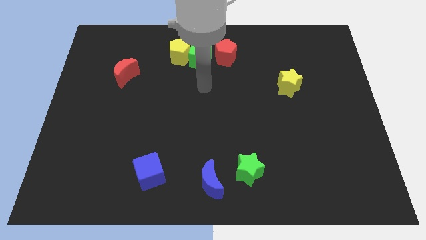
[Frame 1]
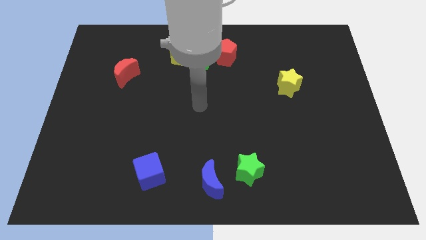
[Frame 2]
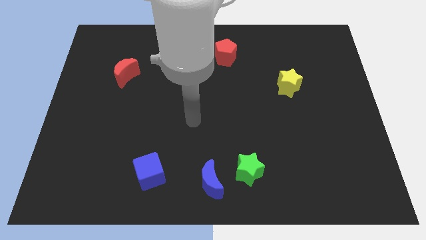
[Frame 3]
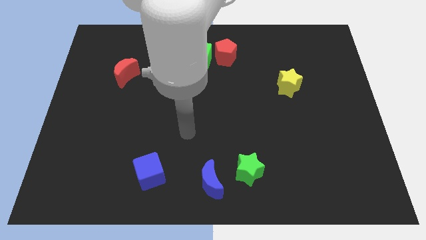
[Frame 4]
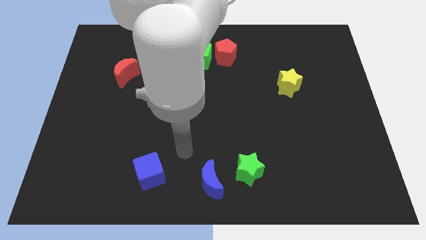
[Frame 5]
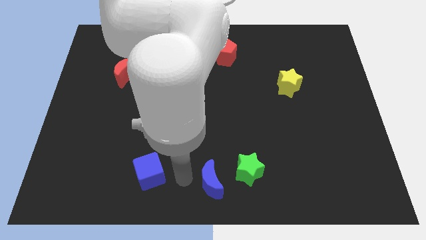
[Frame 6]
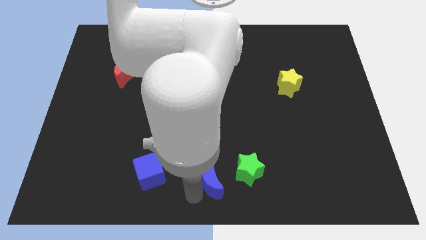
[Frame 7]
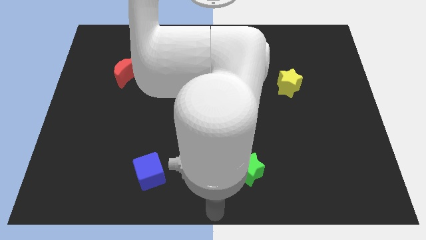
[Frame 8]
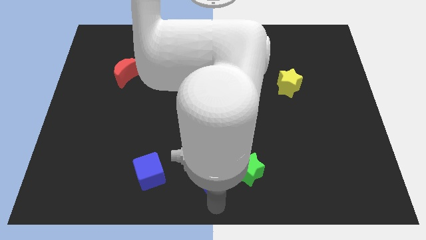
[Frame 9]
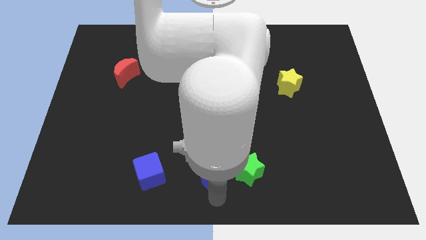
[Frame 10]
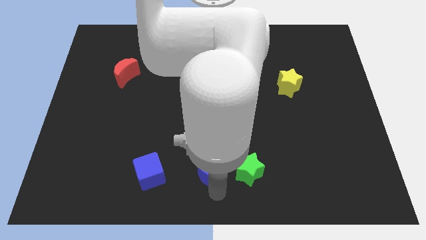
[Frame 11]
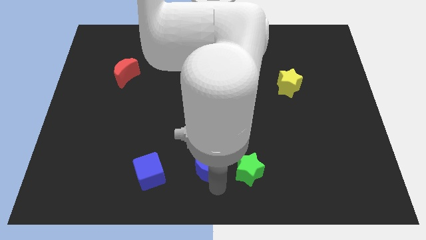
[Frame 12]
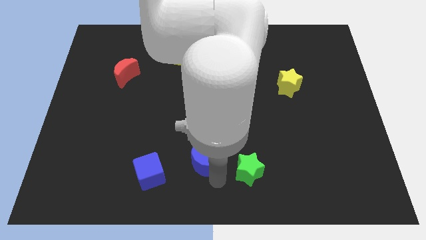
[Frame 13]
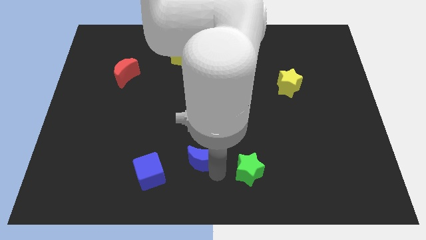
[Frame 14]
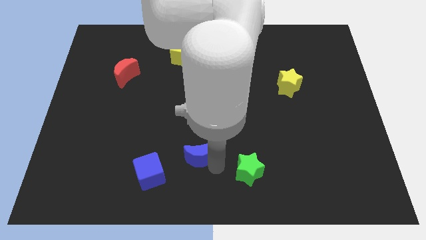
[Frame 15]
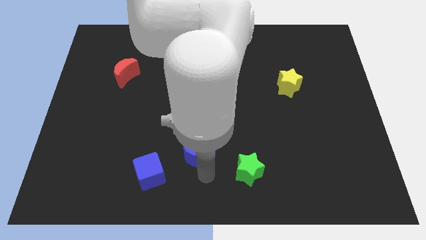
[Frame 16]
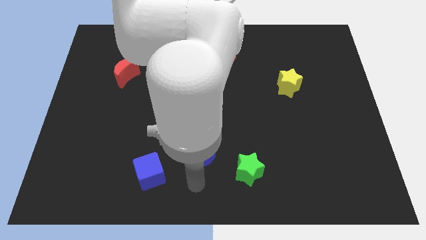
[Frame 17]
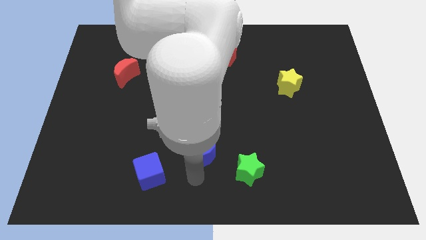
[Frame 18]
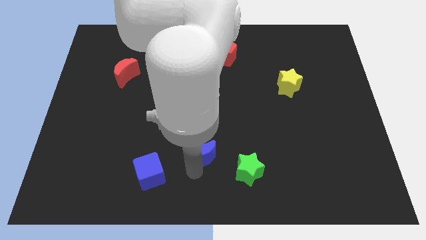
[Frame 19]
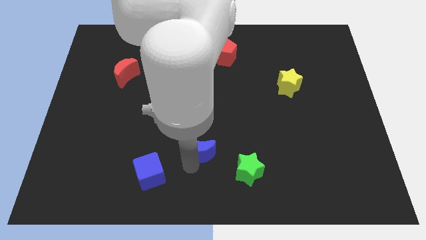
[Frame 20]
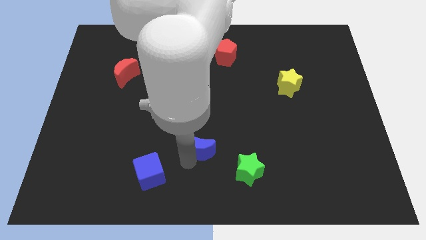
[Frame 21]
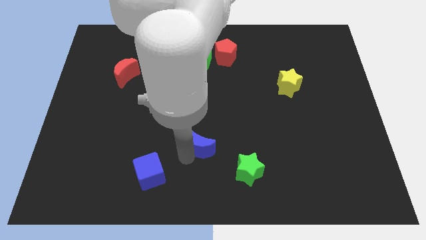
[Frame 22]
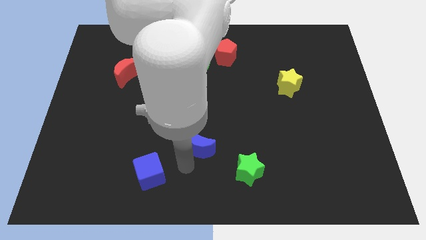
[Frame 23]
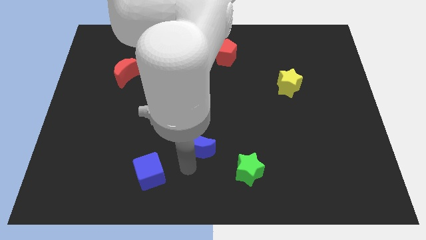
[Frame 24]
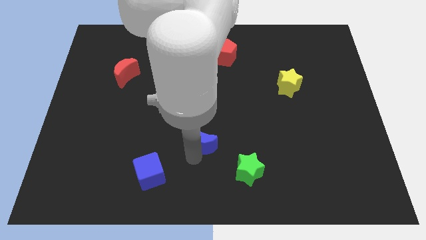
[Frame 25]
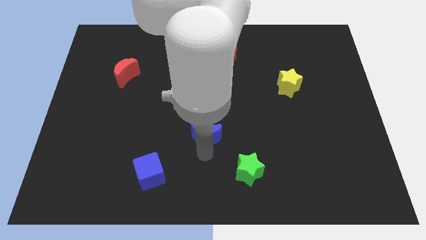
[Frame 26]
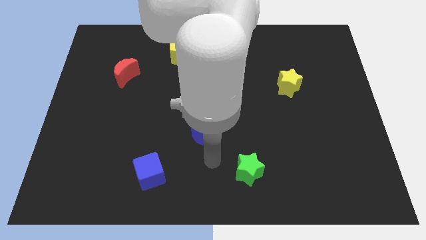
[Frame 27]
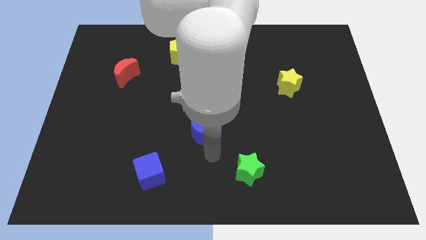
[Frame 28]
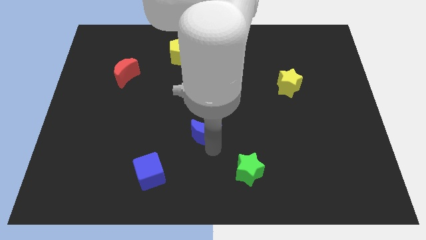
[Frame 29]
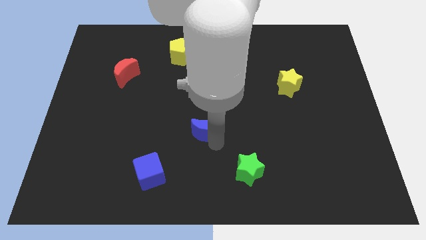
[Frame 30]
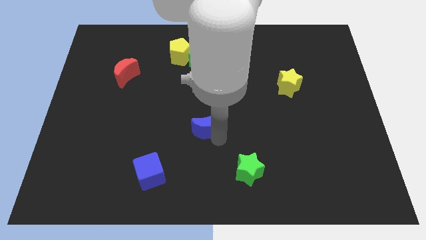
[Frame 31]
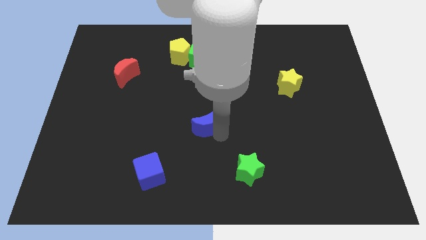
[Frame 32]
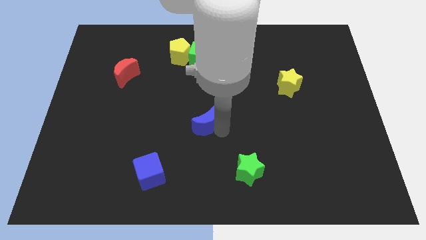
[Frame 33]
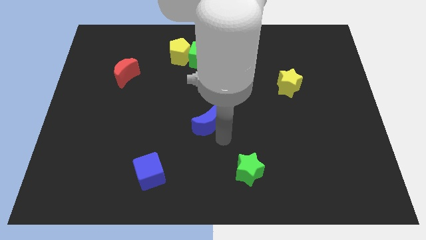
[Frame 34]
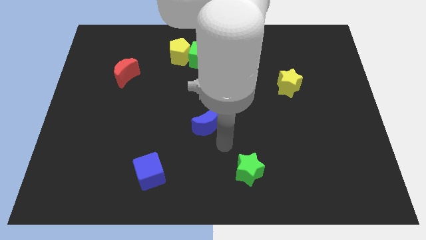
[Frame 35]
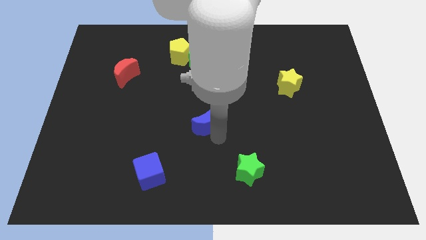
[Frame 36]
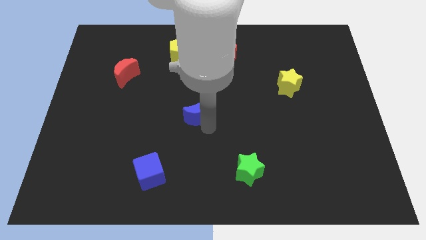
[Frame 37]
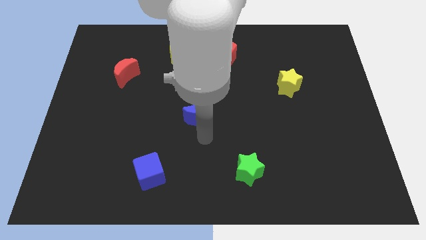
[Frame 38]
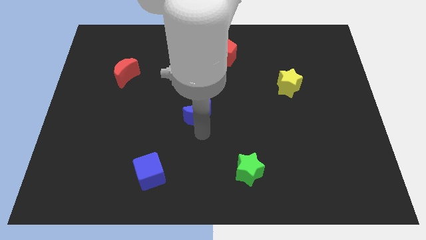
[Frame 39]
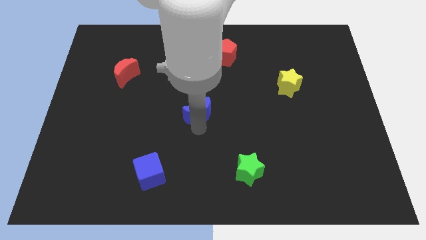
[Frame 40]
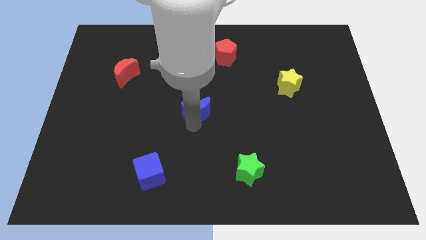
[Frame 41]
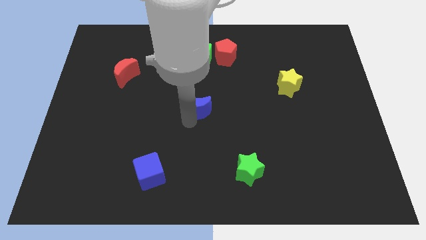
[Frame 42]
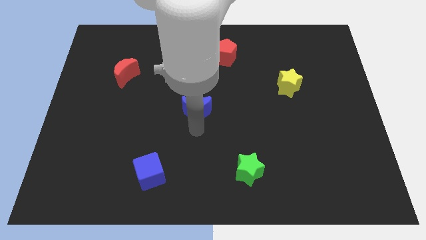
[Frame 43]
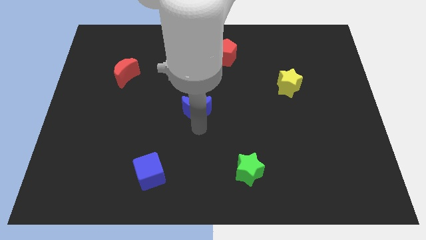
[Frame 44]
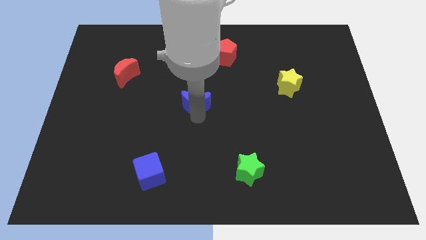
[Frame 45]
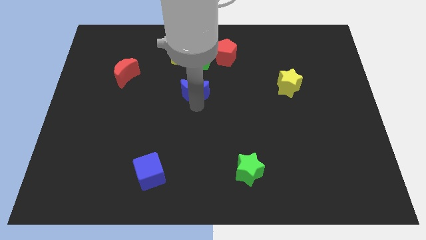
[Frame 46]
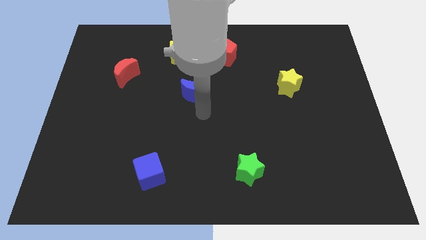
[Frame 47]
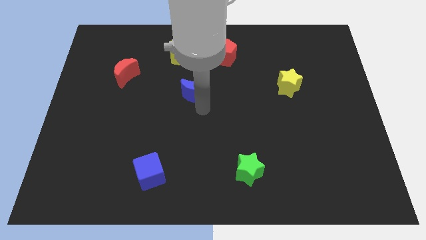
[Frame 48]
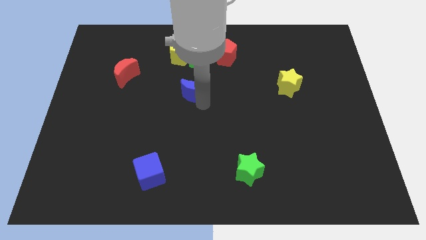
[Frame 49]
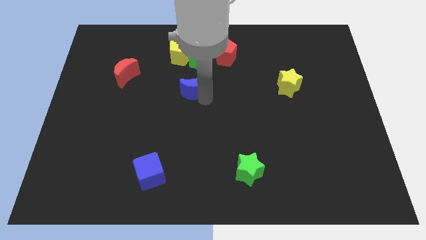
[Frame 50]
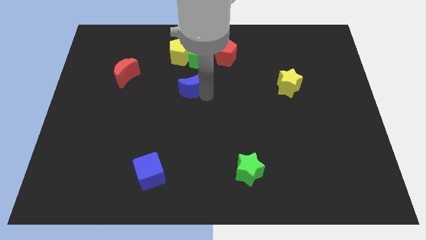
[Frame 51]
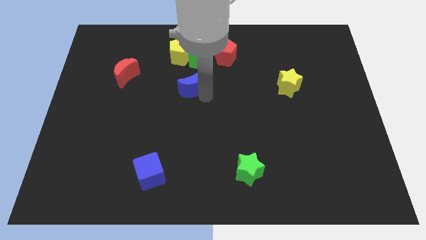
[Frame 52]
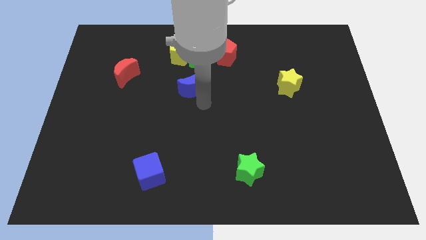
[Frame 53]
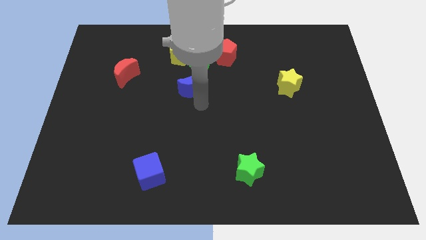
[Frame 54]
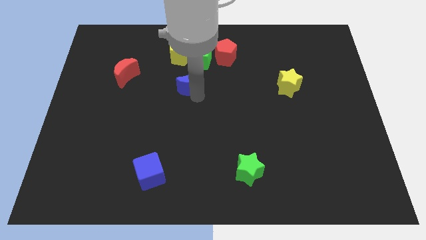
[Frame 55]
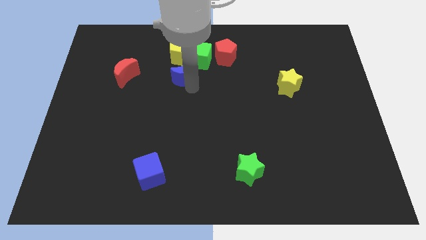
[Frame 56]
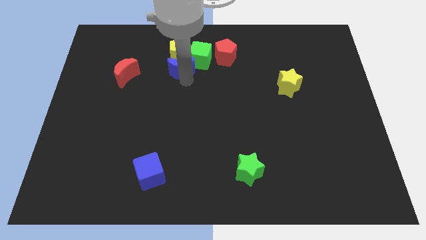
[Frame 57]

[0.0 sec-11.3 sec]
push the blue moon next to the yellow pentagon

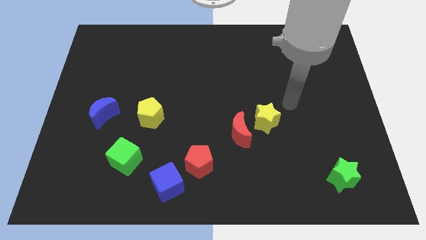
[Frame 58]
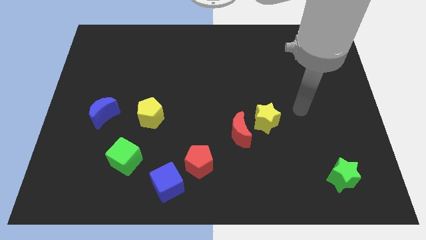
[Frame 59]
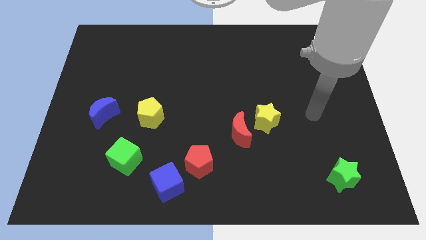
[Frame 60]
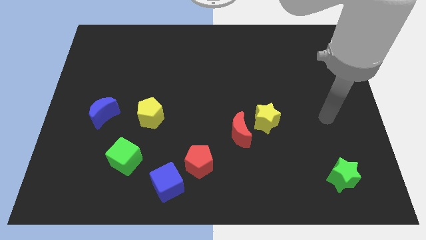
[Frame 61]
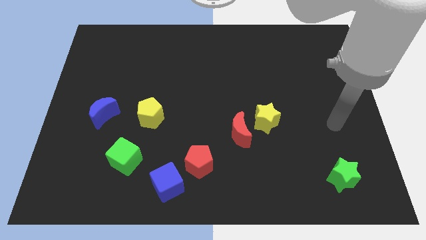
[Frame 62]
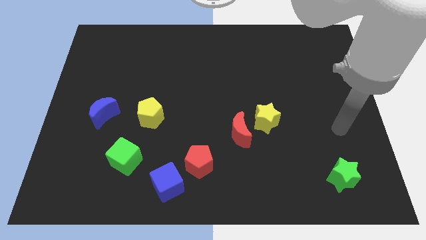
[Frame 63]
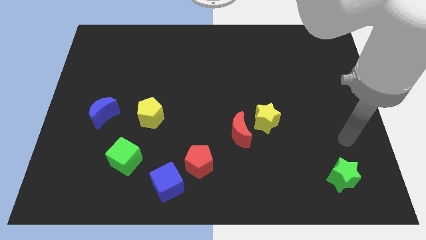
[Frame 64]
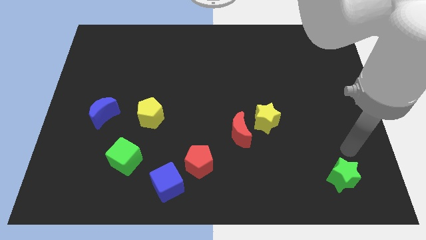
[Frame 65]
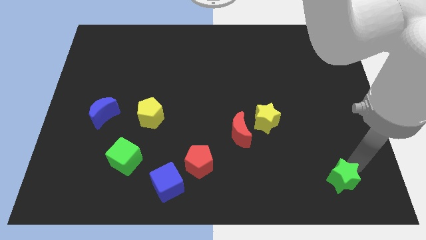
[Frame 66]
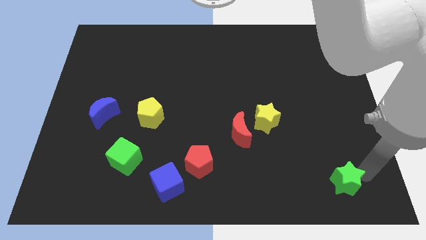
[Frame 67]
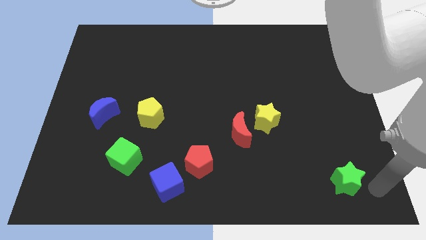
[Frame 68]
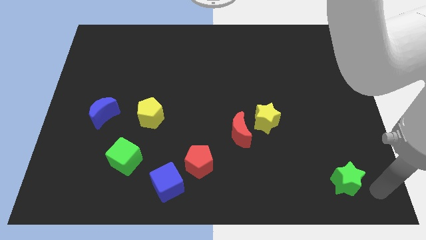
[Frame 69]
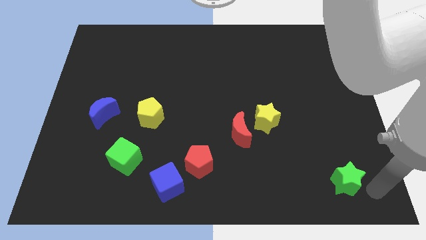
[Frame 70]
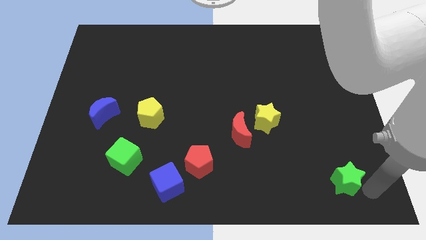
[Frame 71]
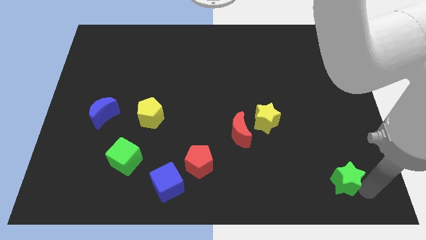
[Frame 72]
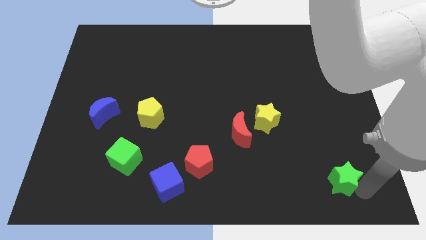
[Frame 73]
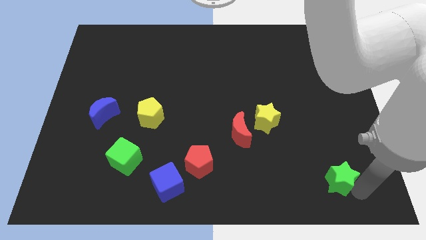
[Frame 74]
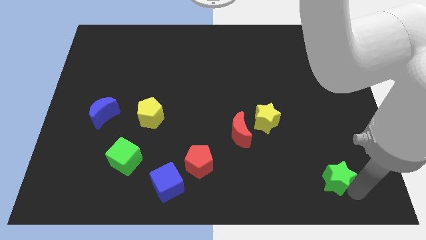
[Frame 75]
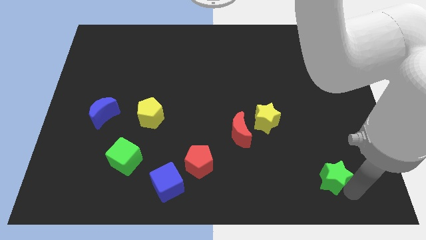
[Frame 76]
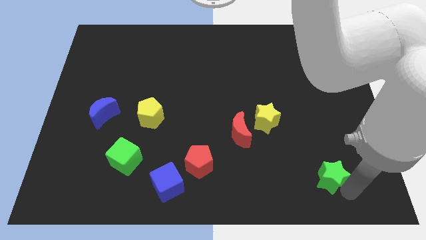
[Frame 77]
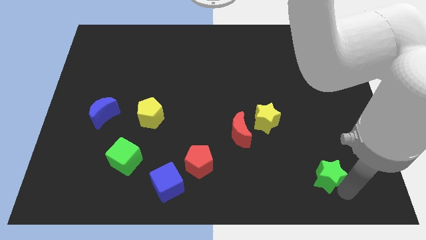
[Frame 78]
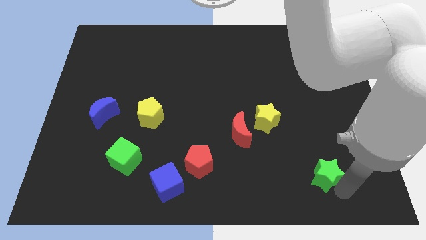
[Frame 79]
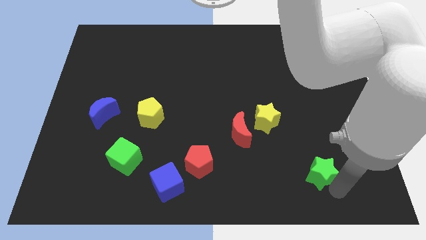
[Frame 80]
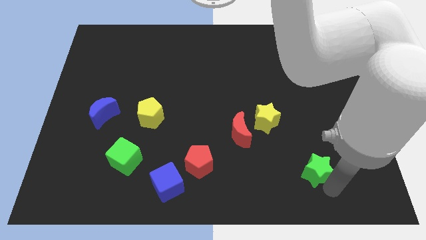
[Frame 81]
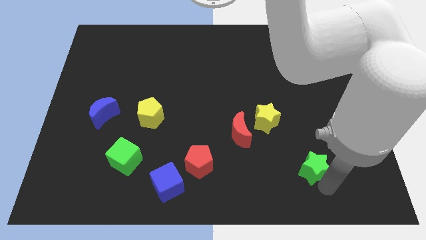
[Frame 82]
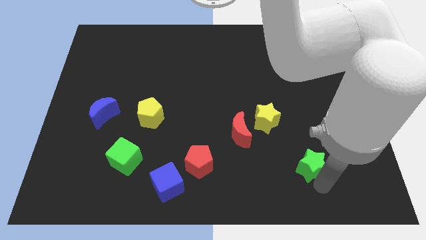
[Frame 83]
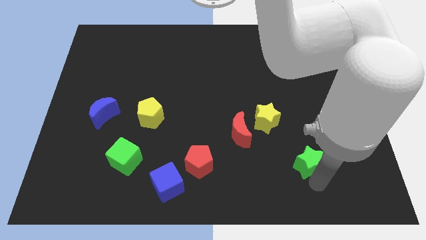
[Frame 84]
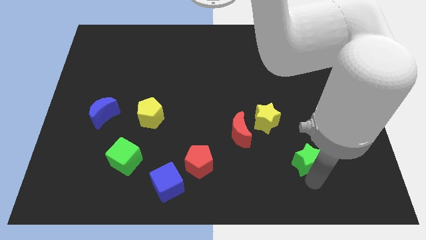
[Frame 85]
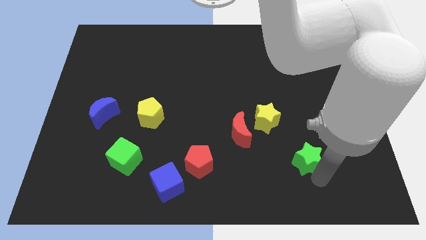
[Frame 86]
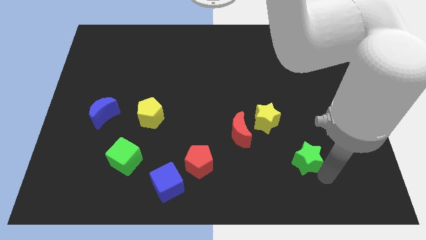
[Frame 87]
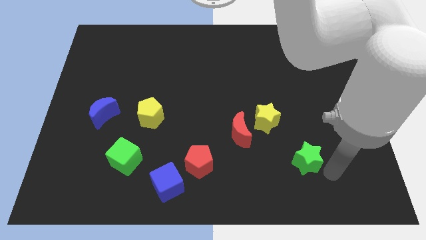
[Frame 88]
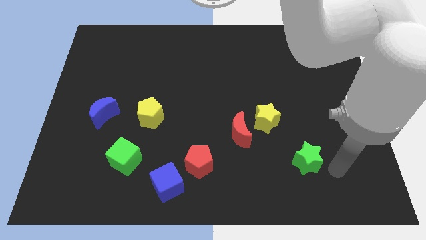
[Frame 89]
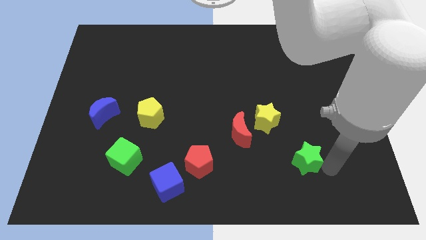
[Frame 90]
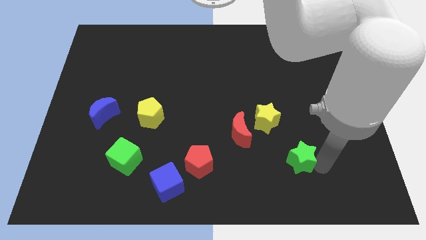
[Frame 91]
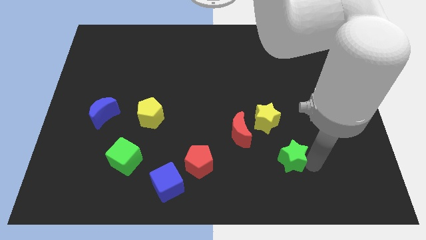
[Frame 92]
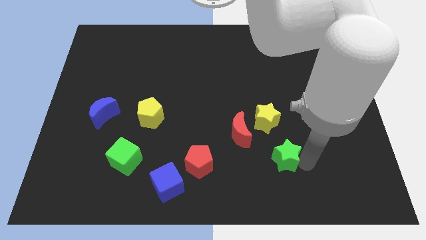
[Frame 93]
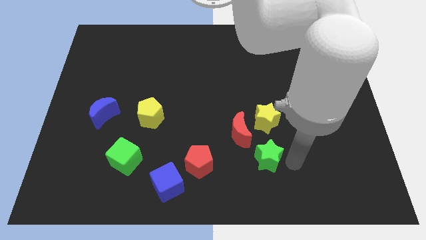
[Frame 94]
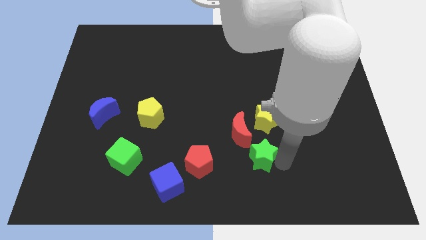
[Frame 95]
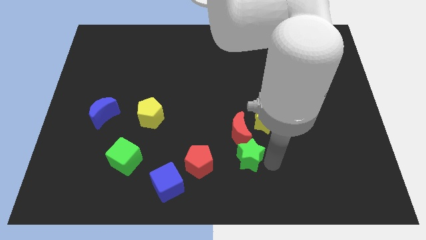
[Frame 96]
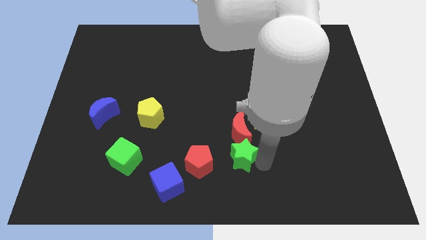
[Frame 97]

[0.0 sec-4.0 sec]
slide the green star towards the red moon
